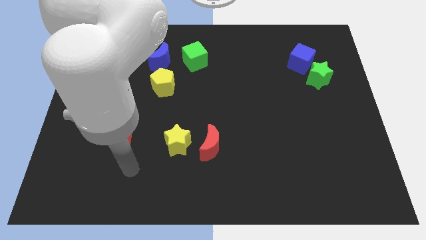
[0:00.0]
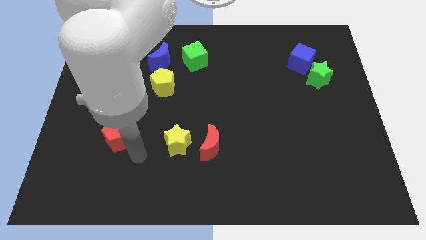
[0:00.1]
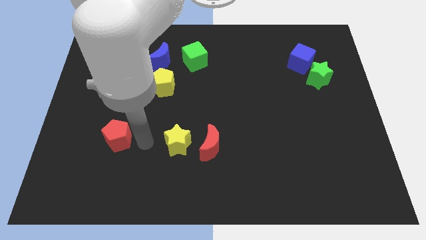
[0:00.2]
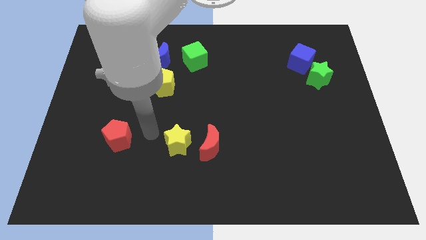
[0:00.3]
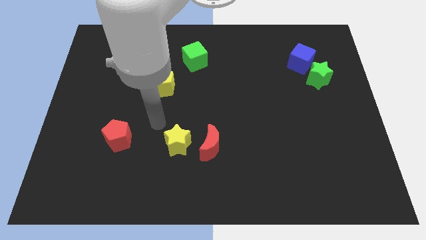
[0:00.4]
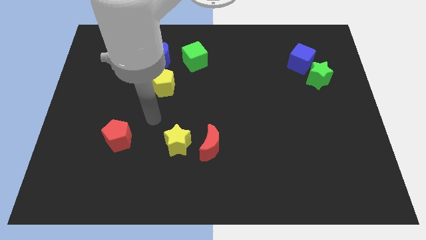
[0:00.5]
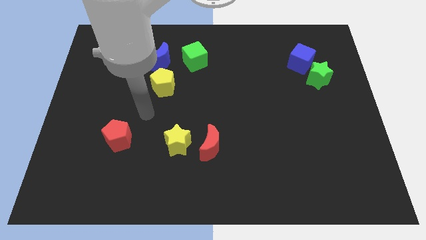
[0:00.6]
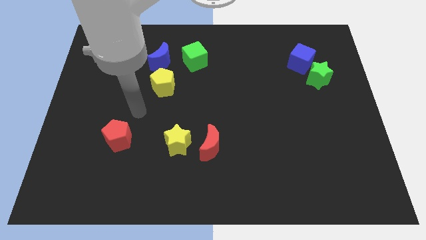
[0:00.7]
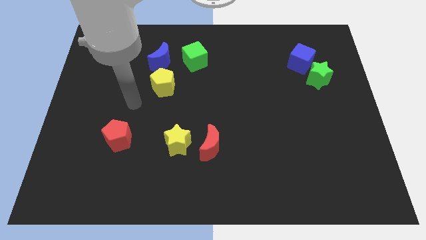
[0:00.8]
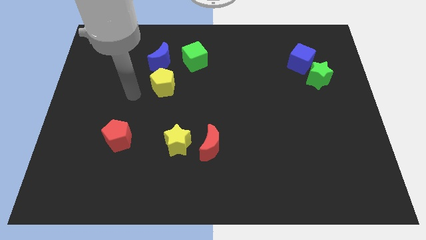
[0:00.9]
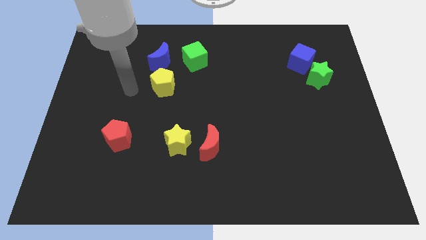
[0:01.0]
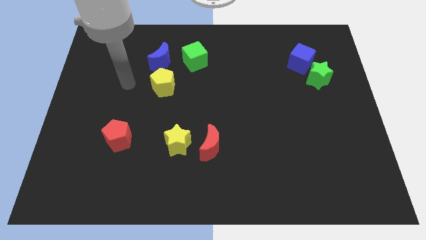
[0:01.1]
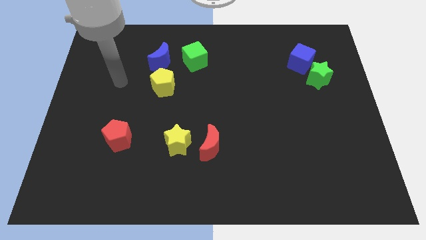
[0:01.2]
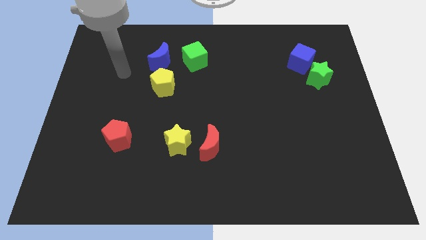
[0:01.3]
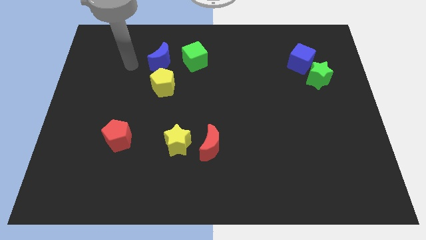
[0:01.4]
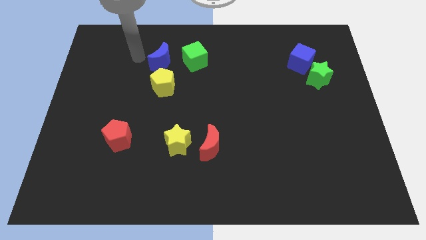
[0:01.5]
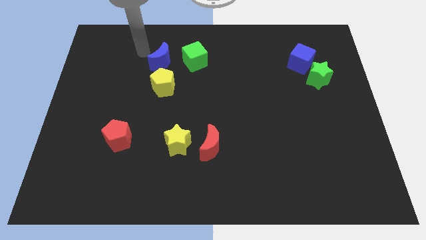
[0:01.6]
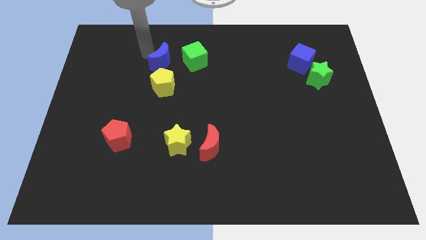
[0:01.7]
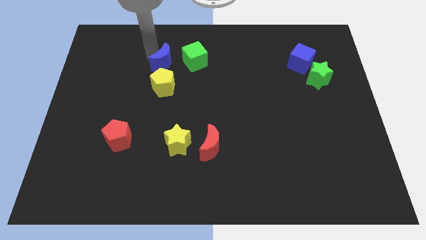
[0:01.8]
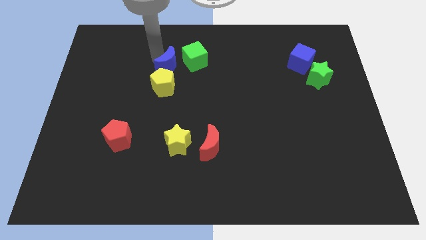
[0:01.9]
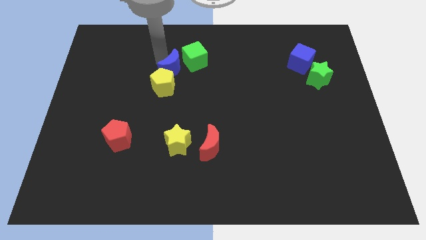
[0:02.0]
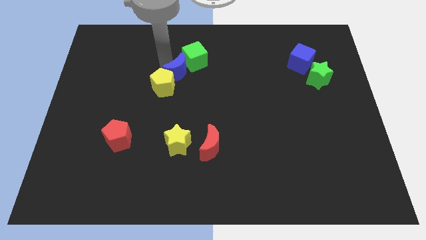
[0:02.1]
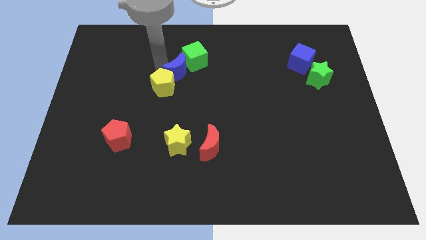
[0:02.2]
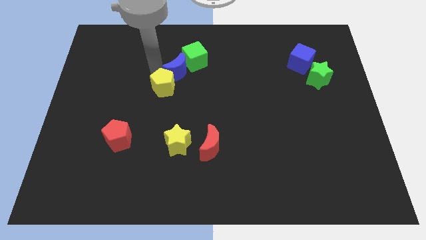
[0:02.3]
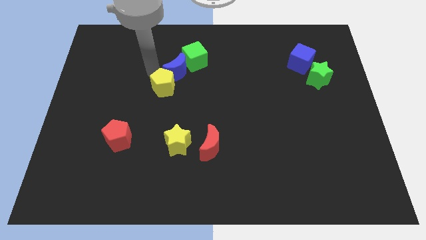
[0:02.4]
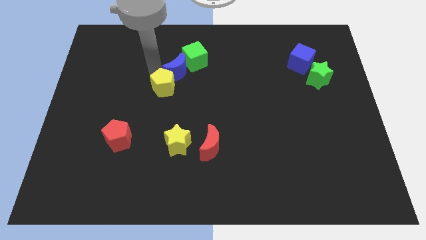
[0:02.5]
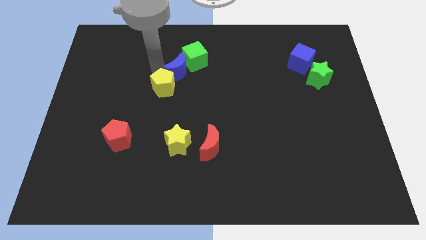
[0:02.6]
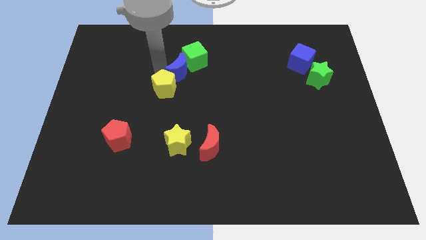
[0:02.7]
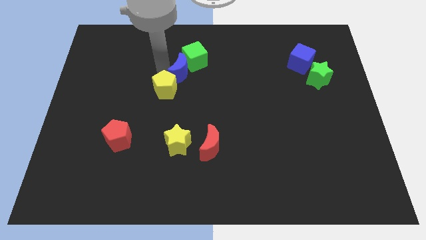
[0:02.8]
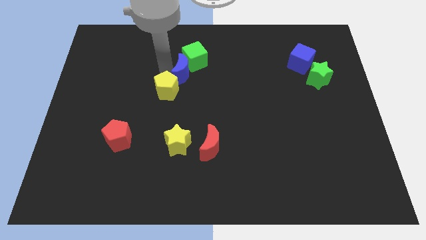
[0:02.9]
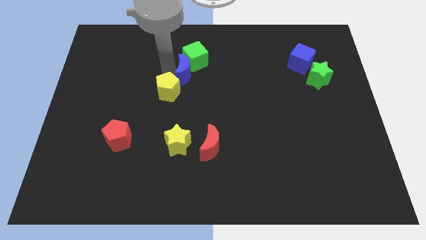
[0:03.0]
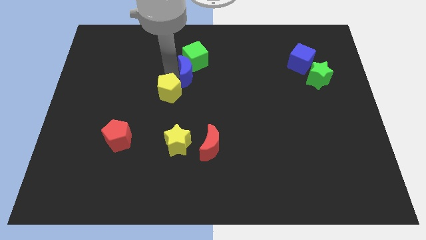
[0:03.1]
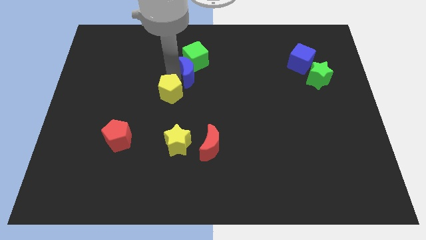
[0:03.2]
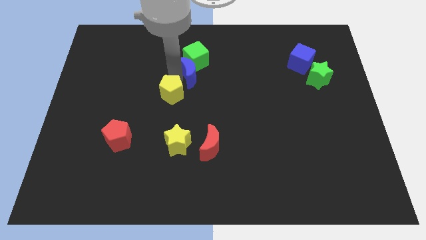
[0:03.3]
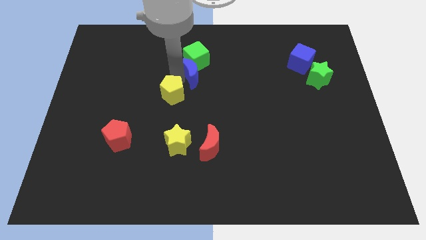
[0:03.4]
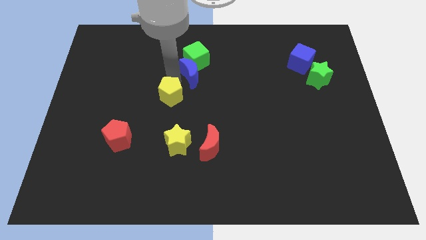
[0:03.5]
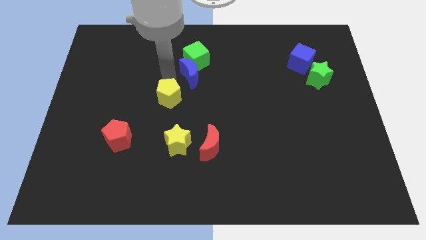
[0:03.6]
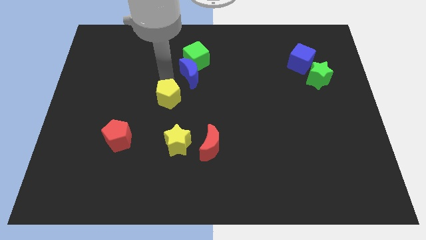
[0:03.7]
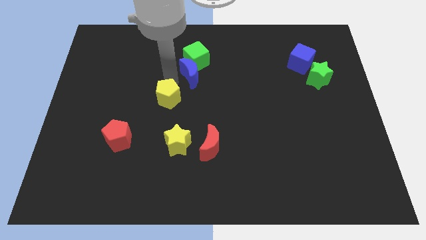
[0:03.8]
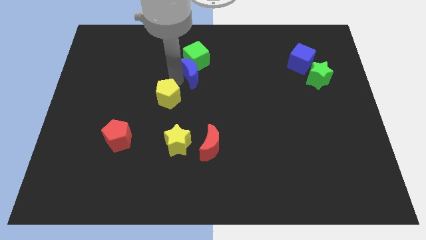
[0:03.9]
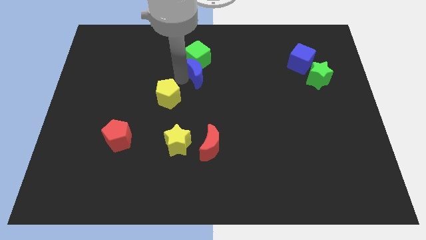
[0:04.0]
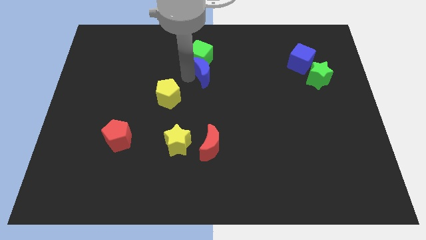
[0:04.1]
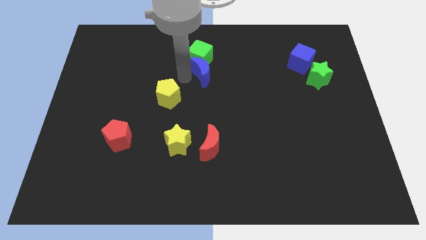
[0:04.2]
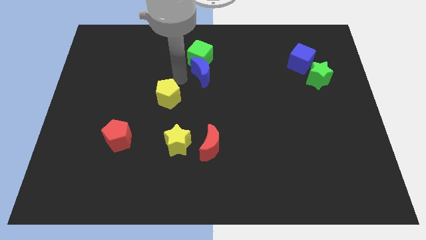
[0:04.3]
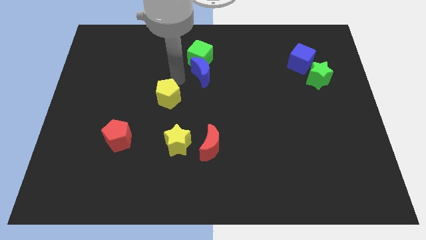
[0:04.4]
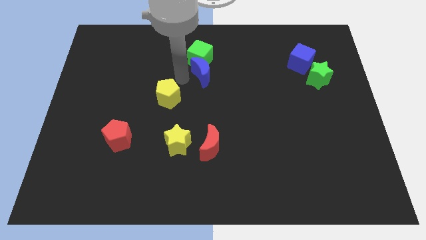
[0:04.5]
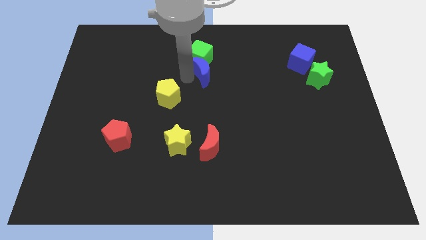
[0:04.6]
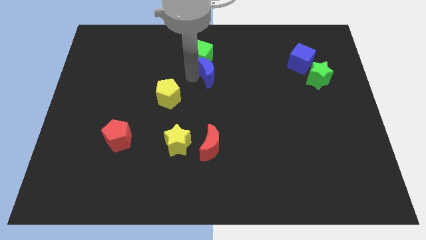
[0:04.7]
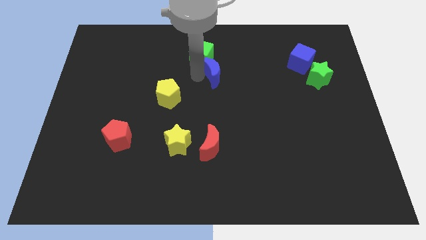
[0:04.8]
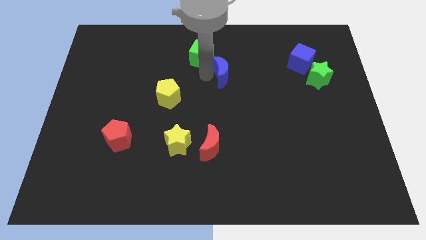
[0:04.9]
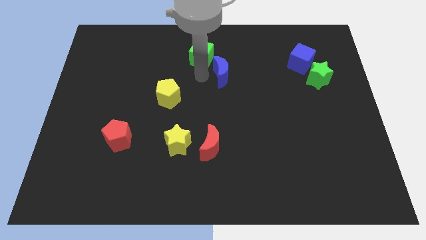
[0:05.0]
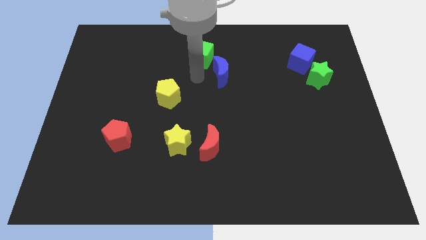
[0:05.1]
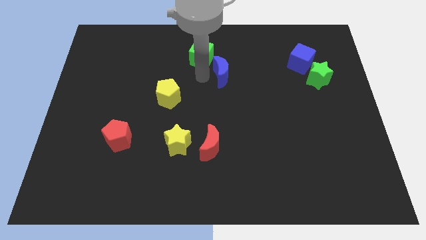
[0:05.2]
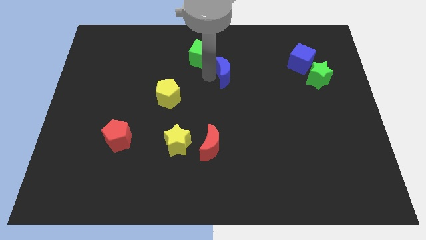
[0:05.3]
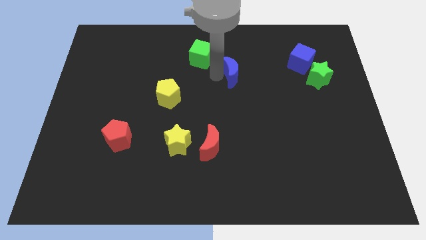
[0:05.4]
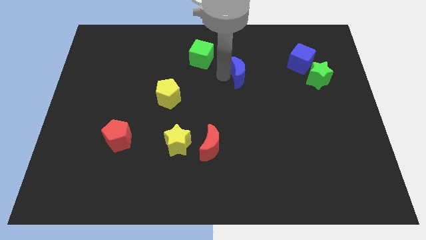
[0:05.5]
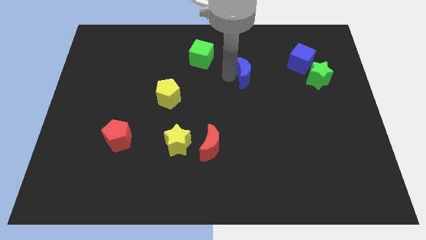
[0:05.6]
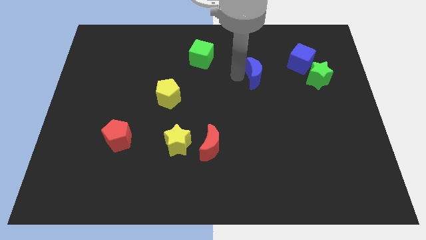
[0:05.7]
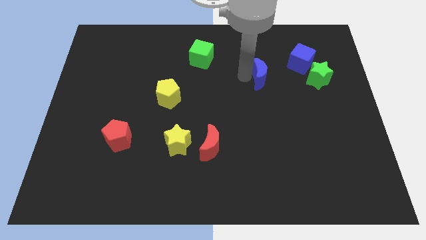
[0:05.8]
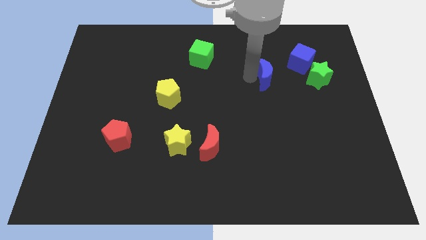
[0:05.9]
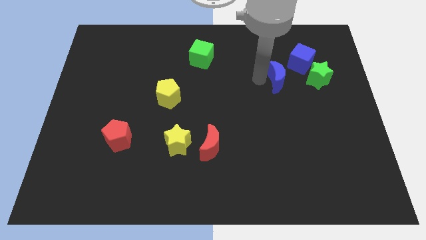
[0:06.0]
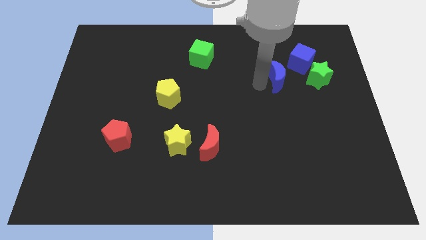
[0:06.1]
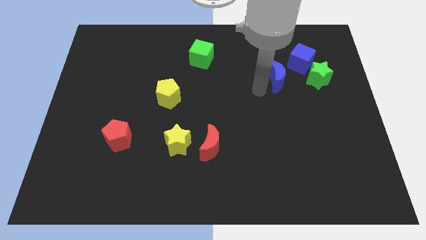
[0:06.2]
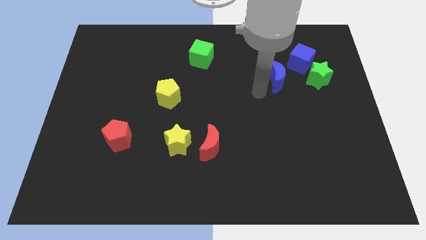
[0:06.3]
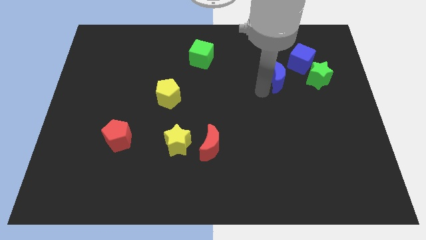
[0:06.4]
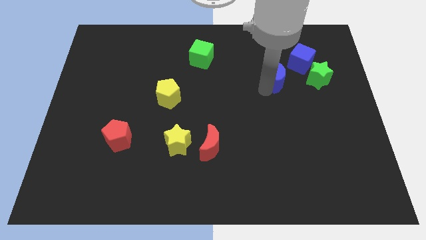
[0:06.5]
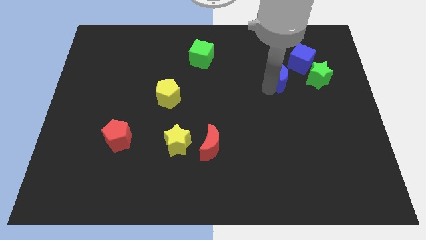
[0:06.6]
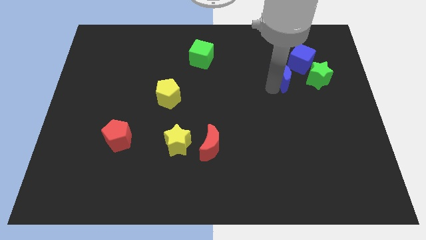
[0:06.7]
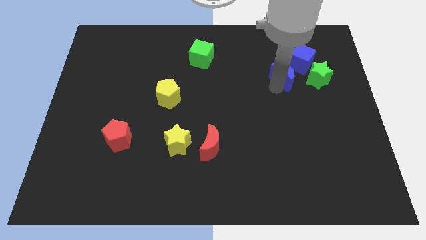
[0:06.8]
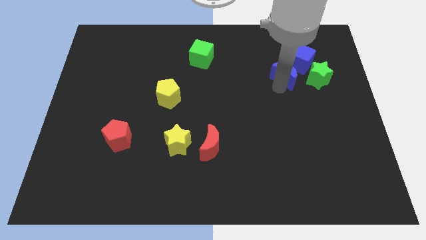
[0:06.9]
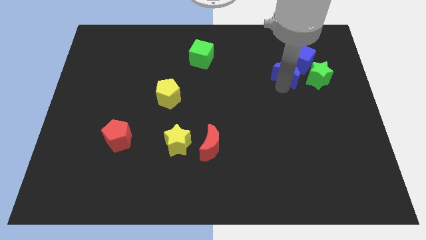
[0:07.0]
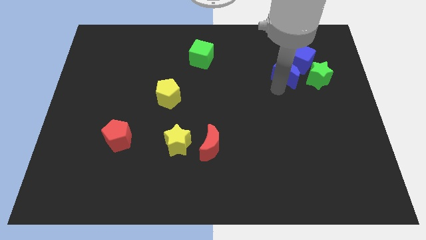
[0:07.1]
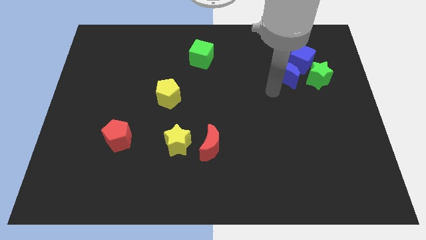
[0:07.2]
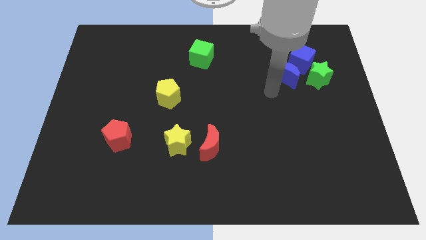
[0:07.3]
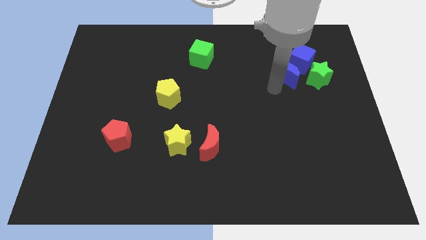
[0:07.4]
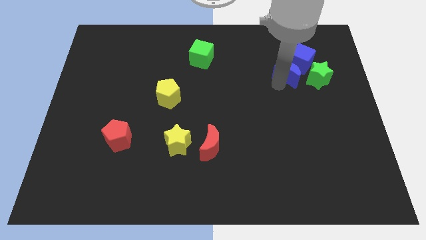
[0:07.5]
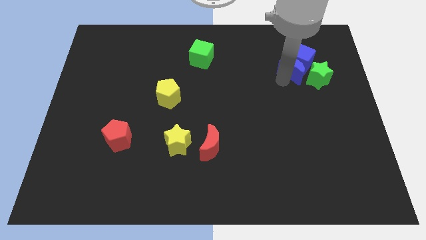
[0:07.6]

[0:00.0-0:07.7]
put the blue moon towards the blue cube
